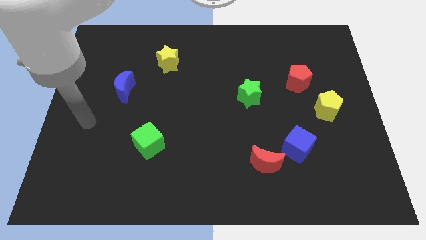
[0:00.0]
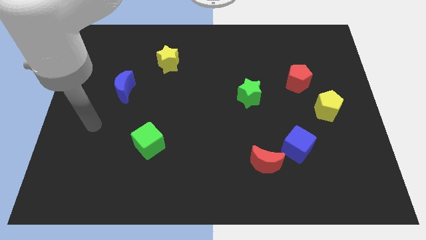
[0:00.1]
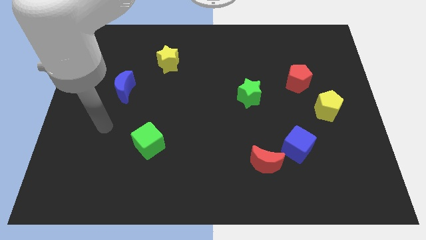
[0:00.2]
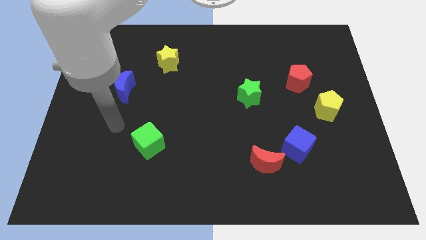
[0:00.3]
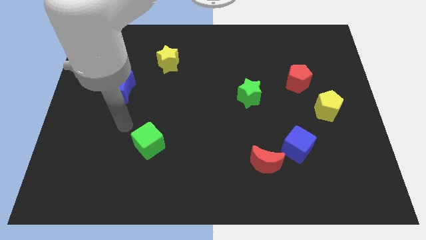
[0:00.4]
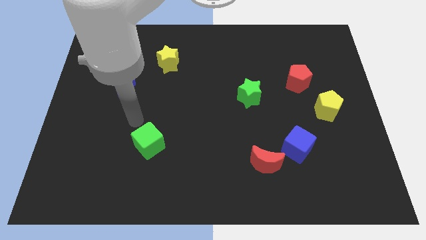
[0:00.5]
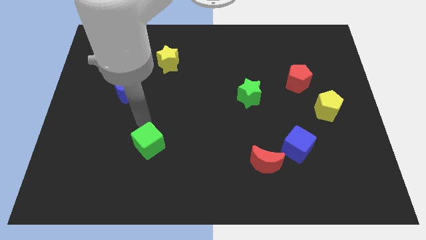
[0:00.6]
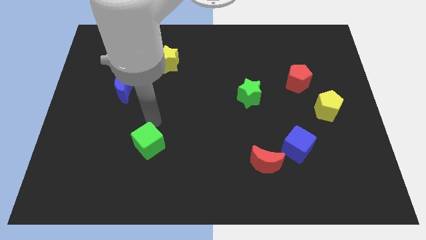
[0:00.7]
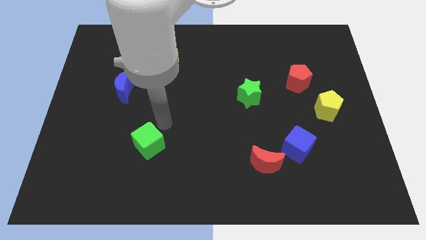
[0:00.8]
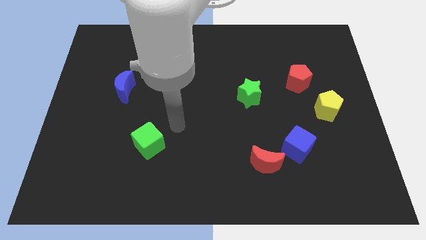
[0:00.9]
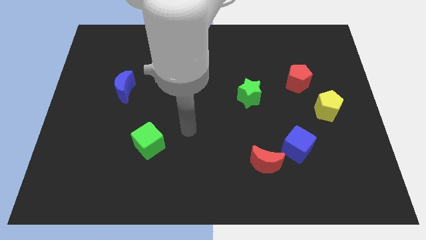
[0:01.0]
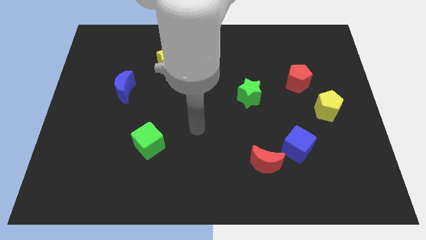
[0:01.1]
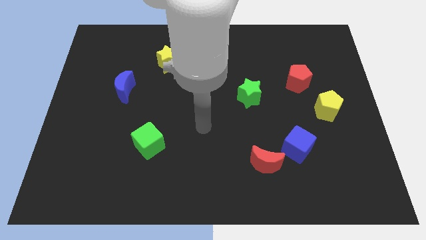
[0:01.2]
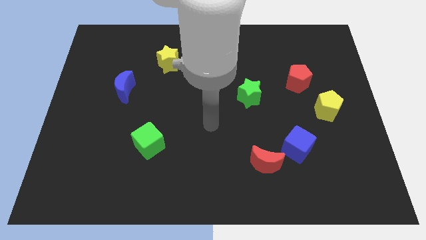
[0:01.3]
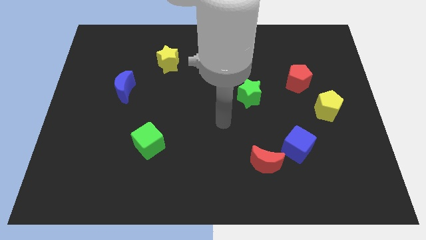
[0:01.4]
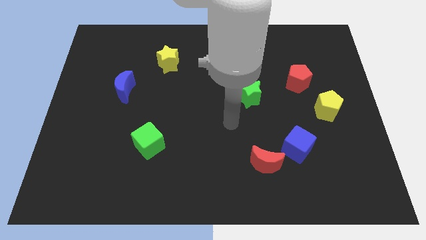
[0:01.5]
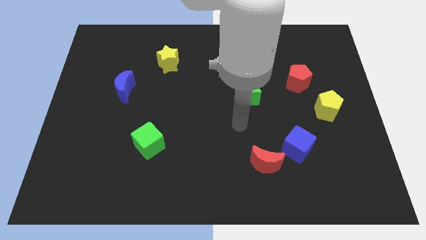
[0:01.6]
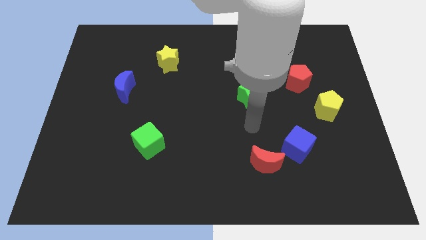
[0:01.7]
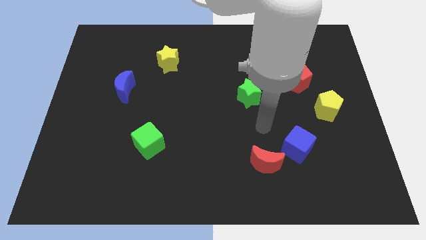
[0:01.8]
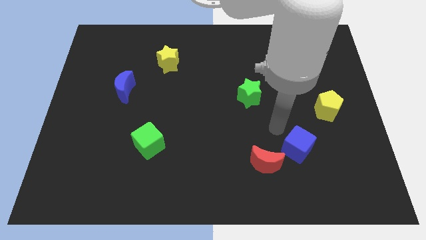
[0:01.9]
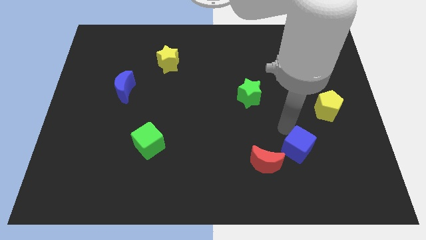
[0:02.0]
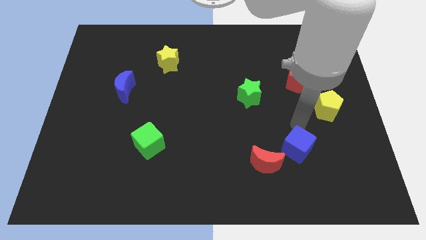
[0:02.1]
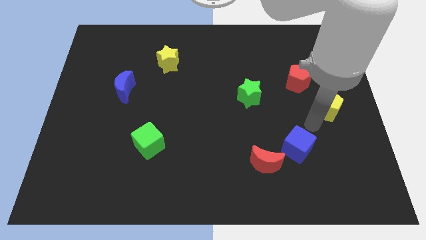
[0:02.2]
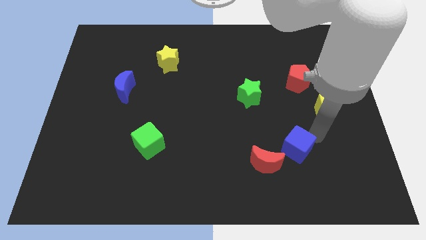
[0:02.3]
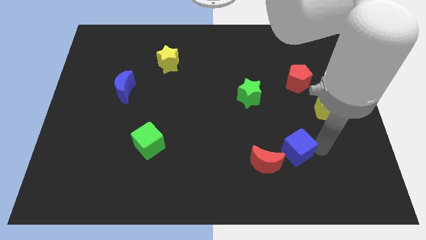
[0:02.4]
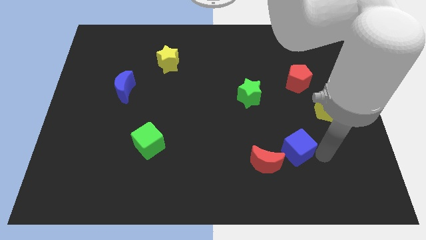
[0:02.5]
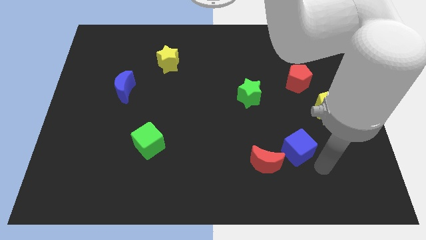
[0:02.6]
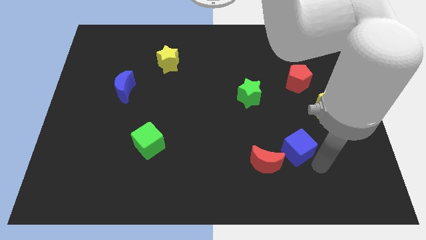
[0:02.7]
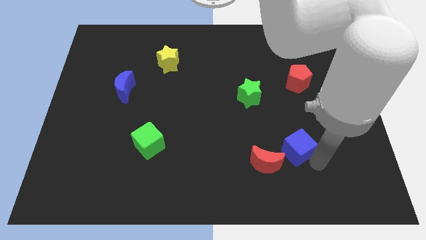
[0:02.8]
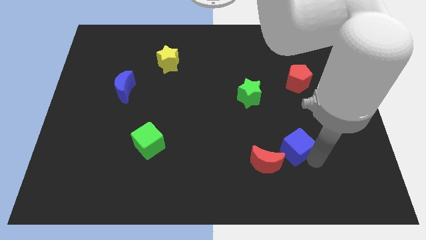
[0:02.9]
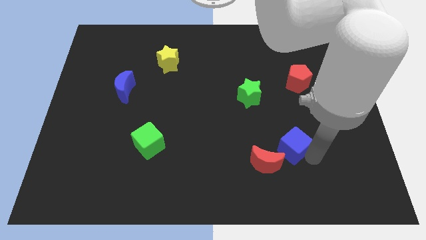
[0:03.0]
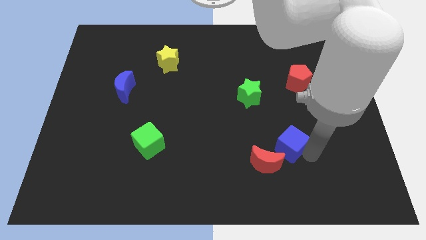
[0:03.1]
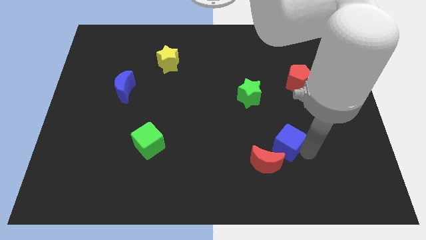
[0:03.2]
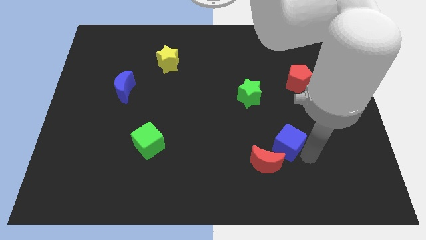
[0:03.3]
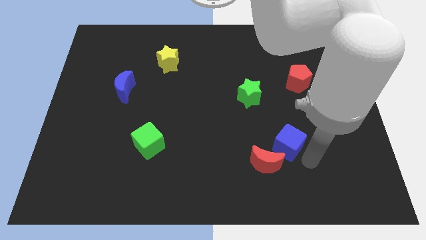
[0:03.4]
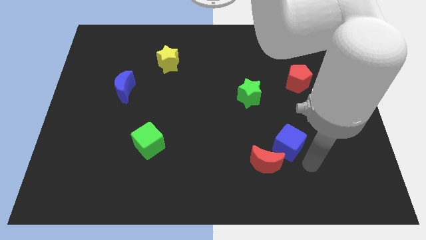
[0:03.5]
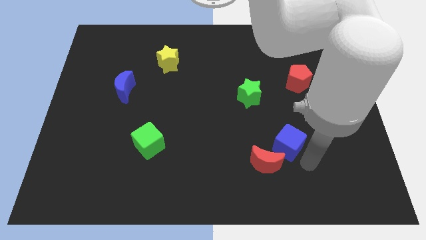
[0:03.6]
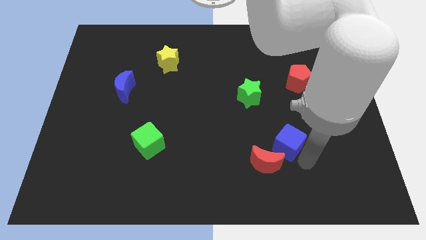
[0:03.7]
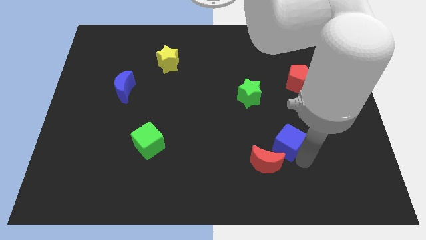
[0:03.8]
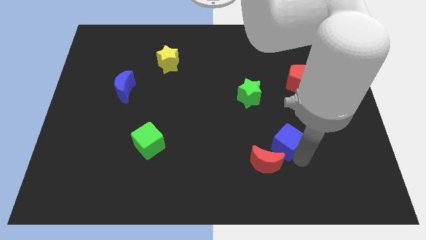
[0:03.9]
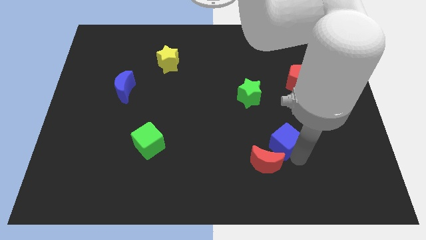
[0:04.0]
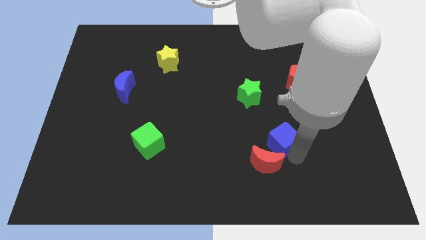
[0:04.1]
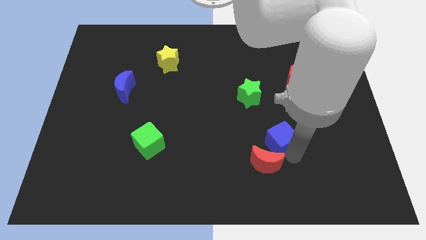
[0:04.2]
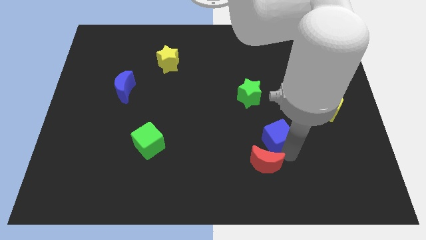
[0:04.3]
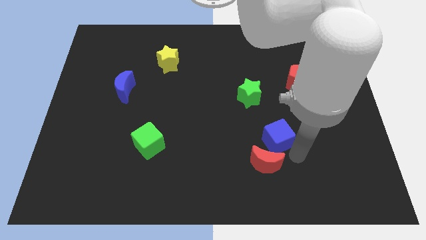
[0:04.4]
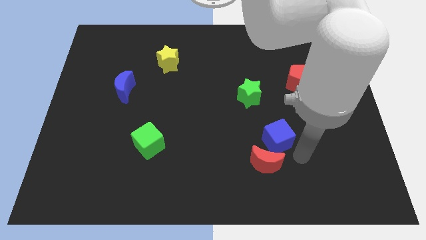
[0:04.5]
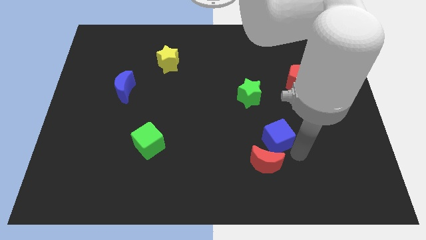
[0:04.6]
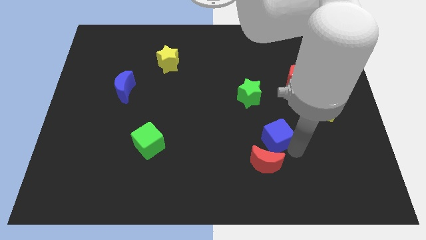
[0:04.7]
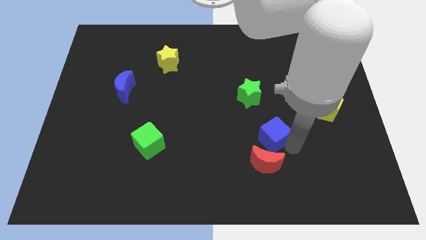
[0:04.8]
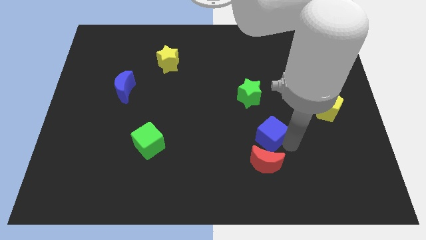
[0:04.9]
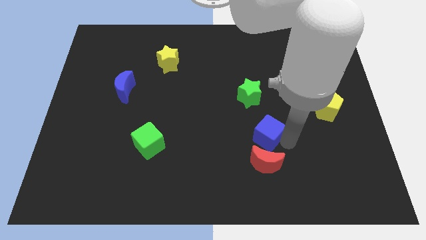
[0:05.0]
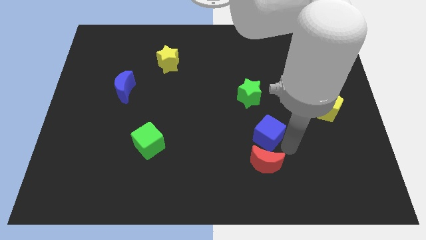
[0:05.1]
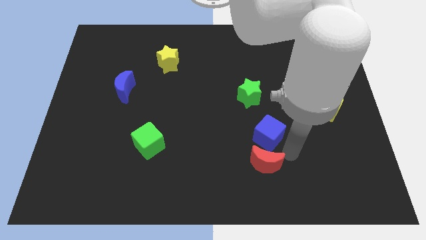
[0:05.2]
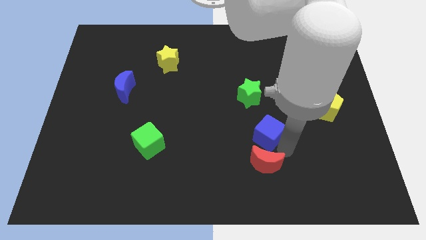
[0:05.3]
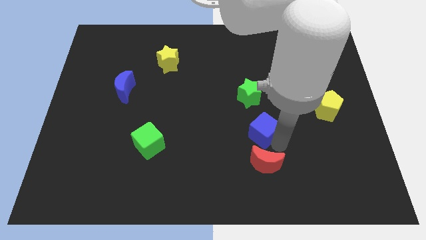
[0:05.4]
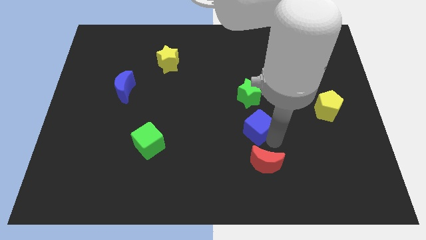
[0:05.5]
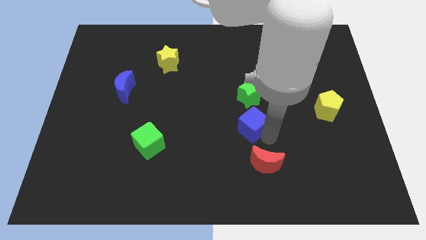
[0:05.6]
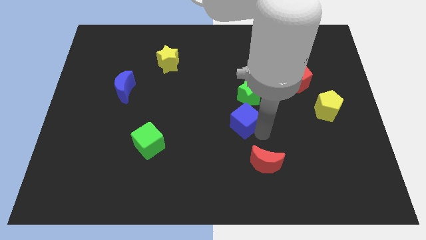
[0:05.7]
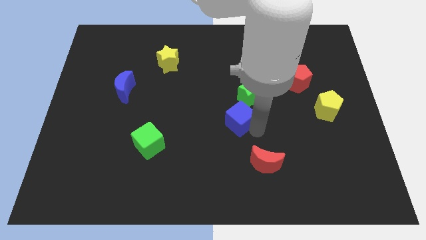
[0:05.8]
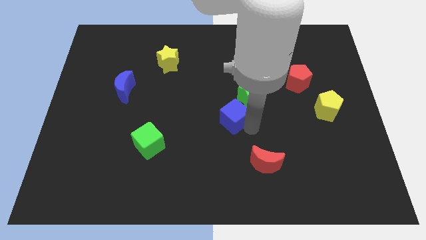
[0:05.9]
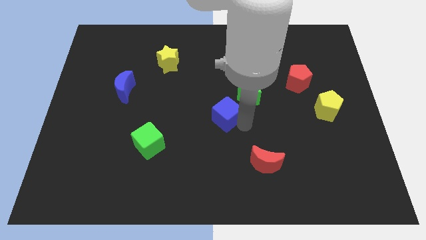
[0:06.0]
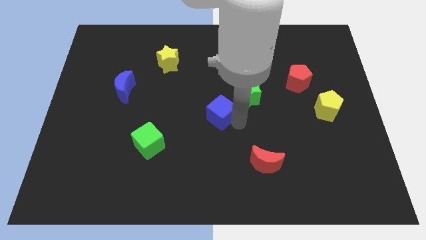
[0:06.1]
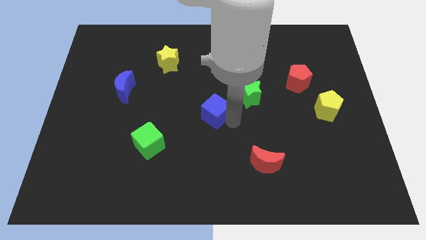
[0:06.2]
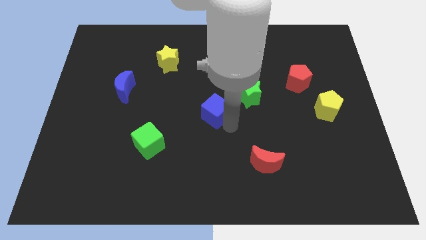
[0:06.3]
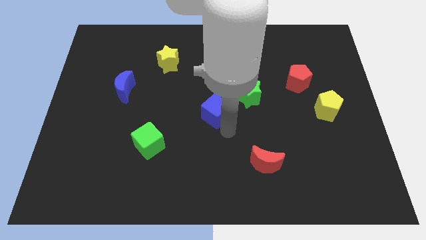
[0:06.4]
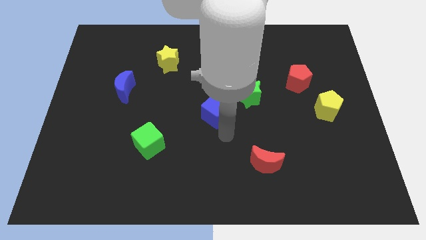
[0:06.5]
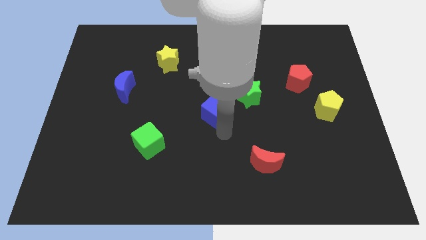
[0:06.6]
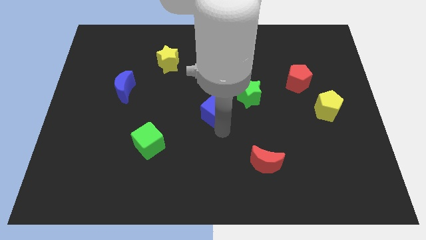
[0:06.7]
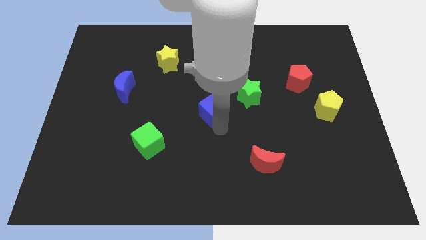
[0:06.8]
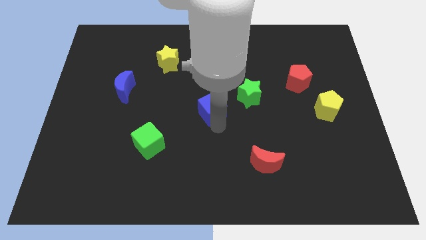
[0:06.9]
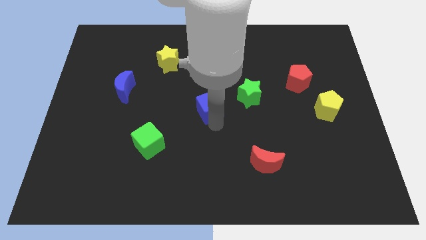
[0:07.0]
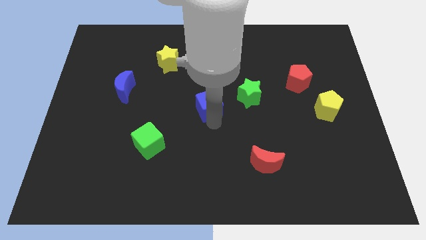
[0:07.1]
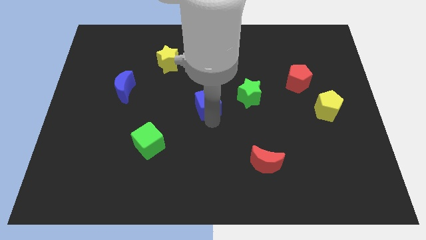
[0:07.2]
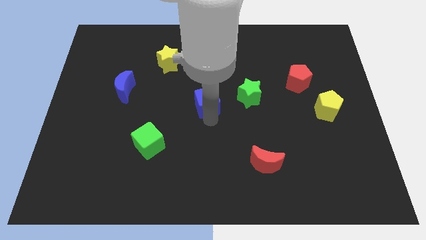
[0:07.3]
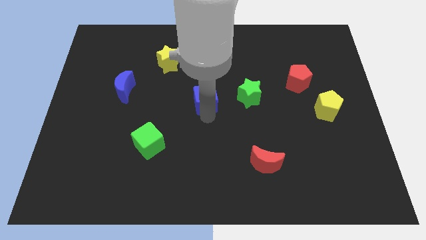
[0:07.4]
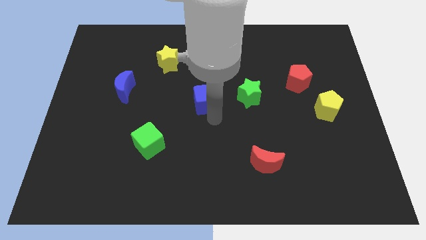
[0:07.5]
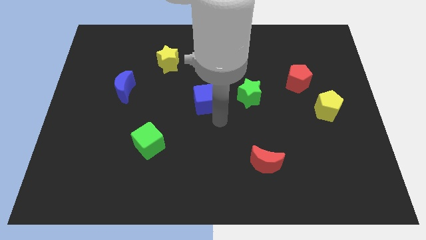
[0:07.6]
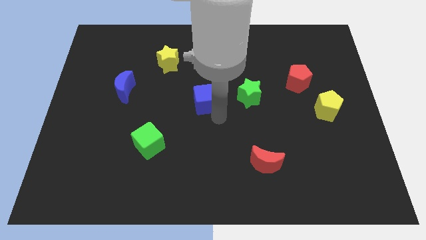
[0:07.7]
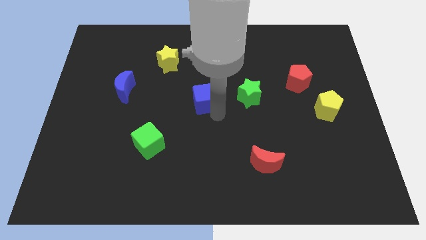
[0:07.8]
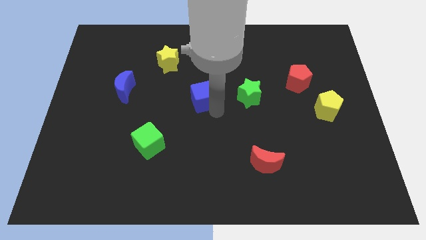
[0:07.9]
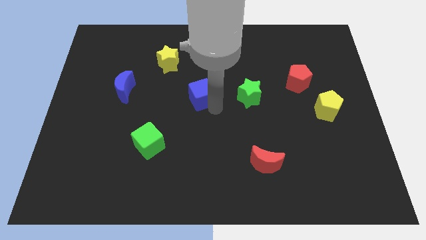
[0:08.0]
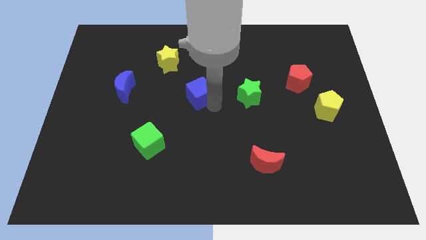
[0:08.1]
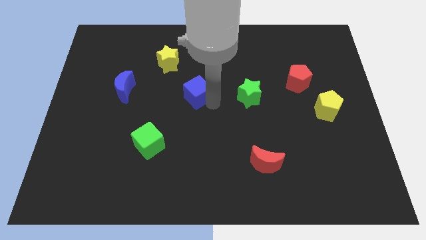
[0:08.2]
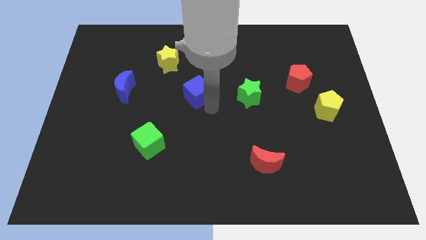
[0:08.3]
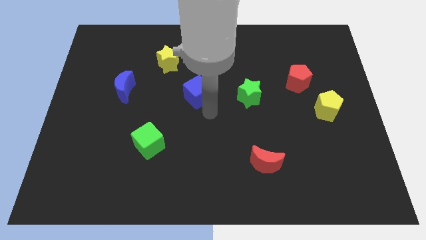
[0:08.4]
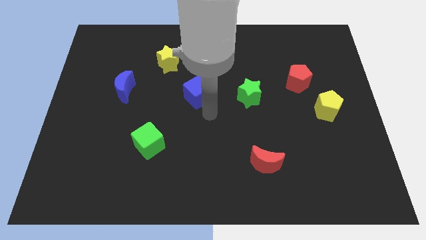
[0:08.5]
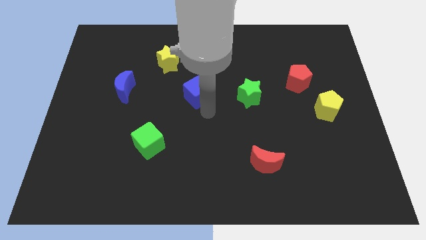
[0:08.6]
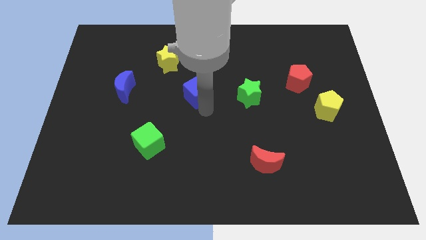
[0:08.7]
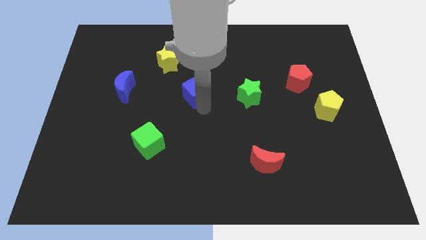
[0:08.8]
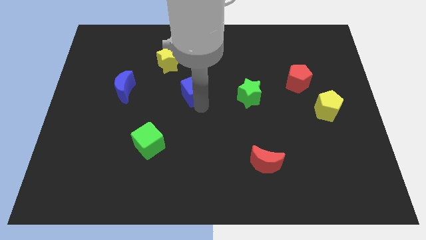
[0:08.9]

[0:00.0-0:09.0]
put the blue cube diagonally down and to the right of the yellow star
